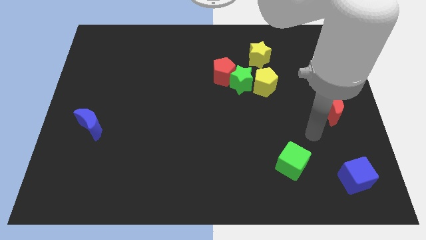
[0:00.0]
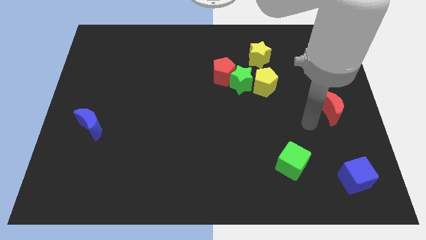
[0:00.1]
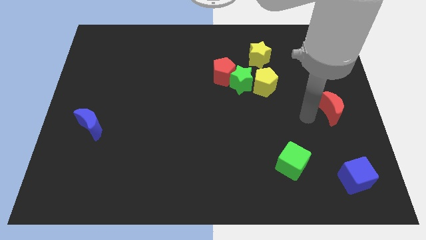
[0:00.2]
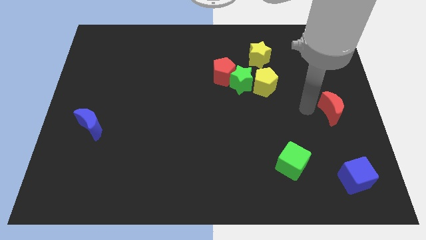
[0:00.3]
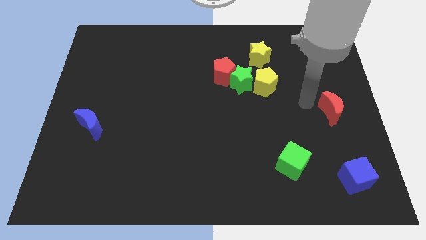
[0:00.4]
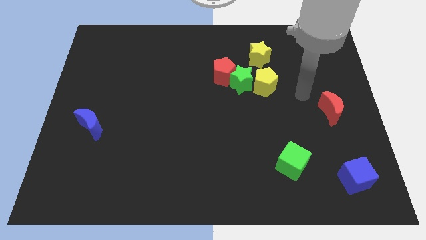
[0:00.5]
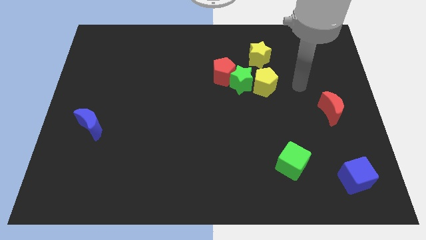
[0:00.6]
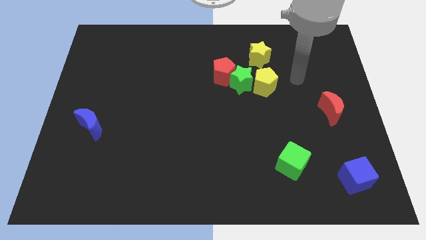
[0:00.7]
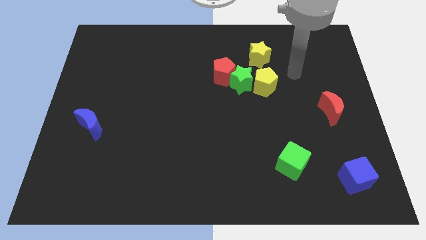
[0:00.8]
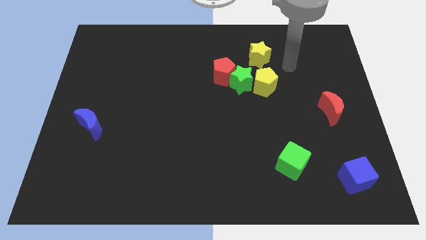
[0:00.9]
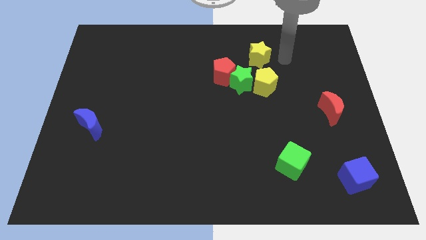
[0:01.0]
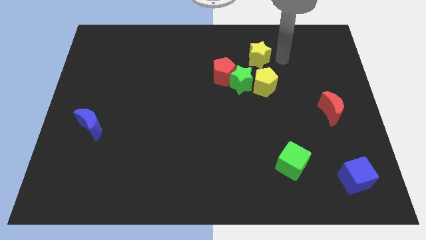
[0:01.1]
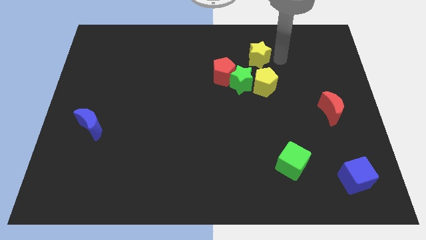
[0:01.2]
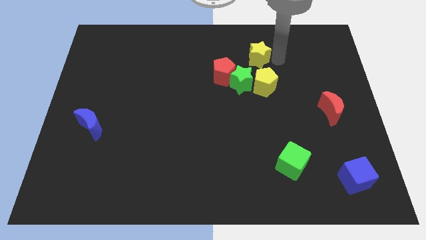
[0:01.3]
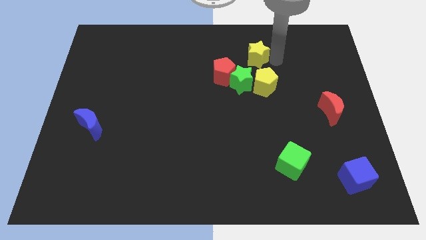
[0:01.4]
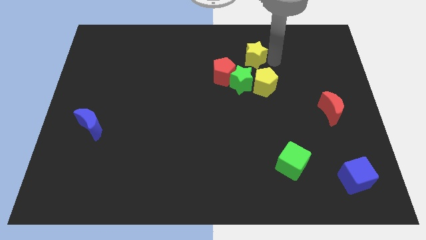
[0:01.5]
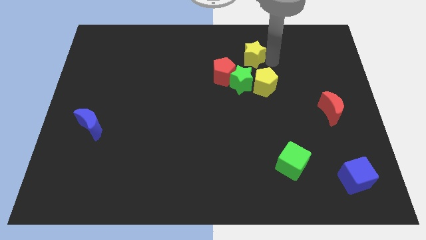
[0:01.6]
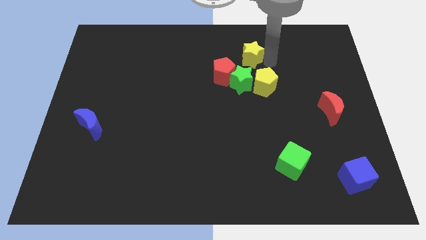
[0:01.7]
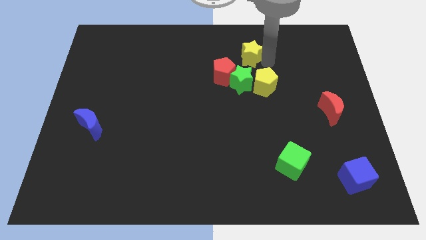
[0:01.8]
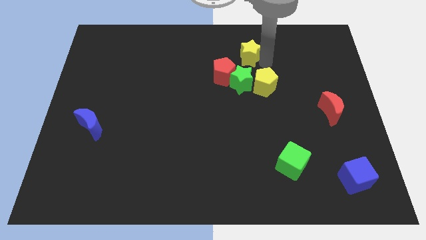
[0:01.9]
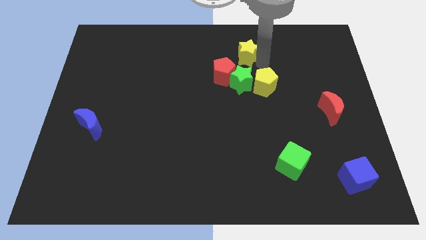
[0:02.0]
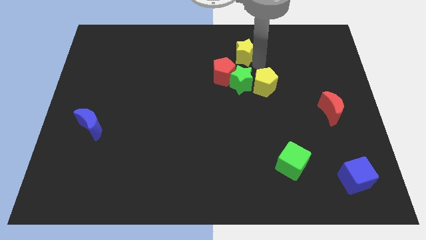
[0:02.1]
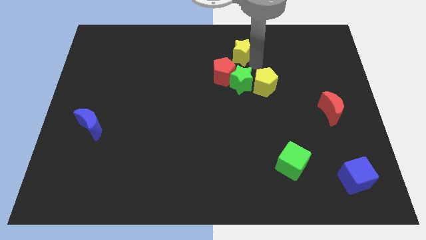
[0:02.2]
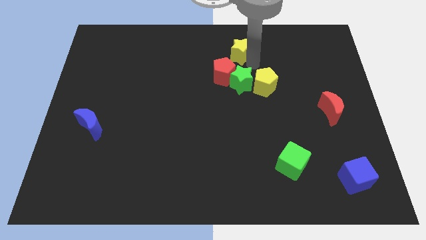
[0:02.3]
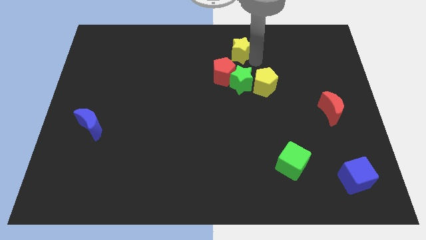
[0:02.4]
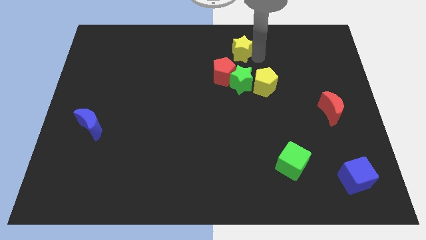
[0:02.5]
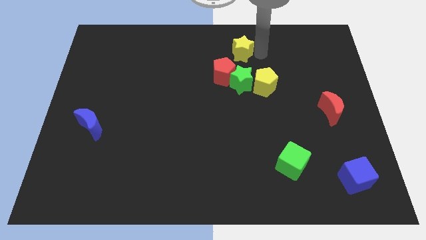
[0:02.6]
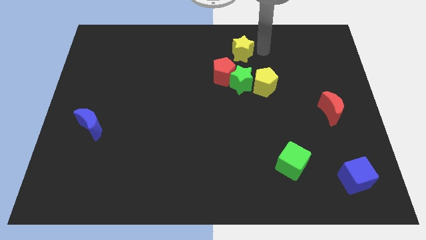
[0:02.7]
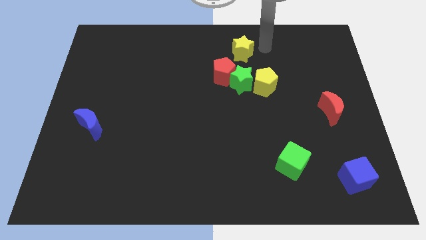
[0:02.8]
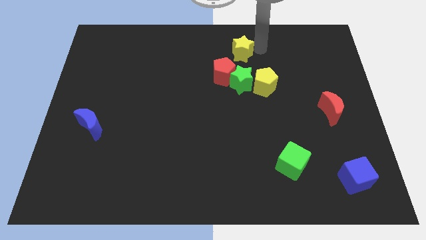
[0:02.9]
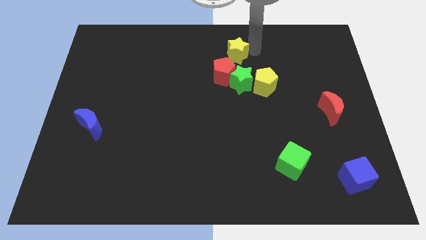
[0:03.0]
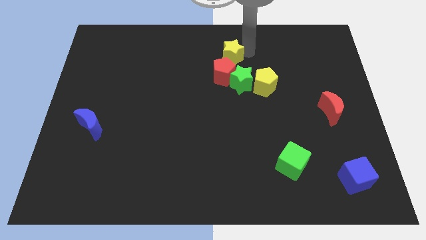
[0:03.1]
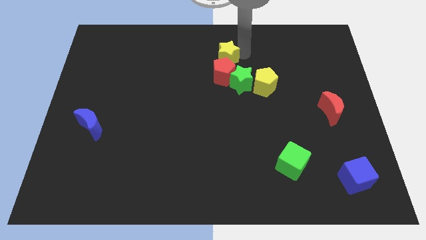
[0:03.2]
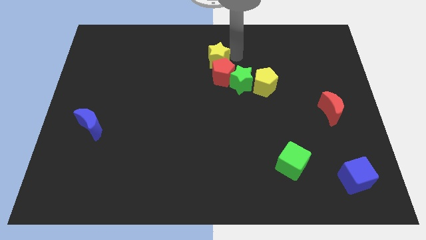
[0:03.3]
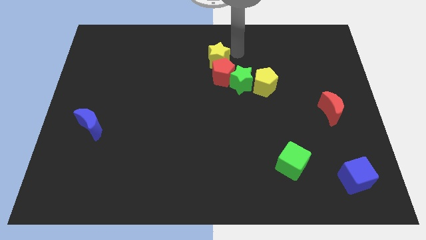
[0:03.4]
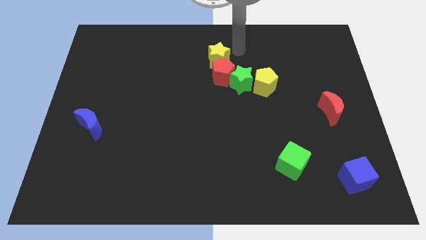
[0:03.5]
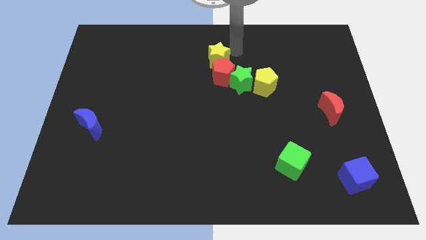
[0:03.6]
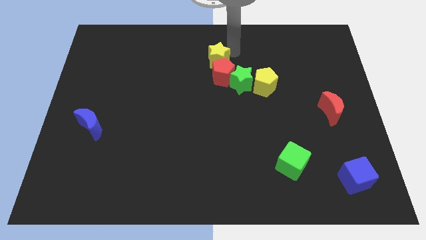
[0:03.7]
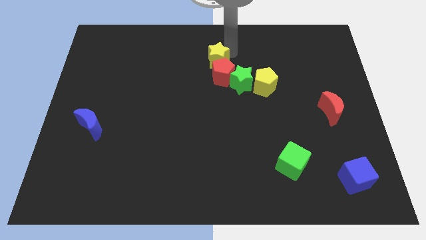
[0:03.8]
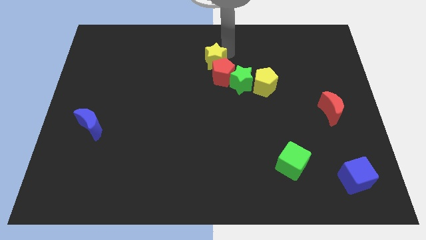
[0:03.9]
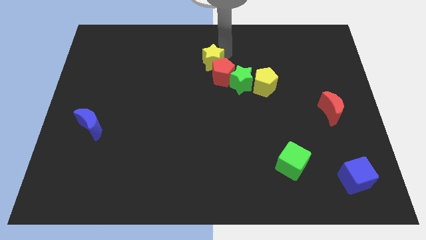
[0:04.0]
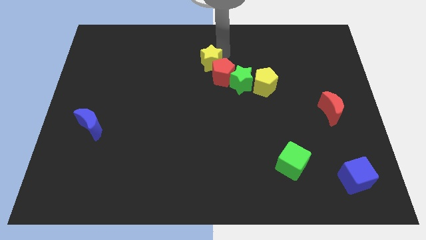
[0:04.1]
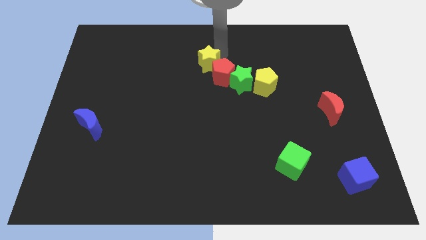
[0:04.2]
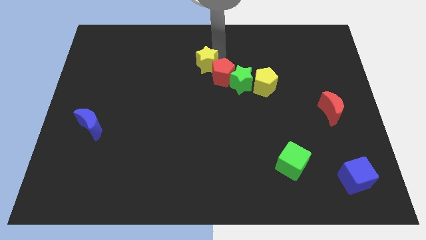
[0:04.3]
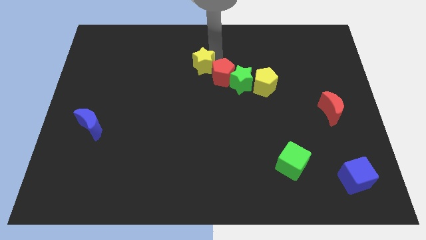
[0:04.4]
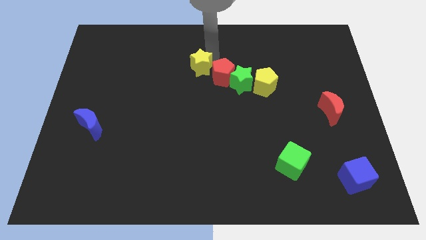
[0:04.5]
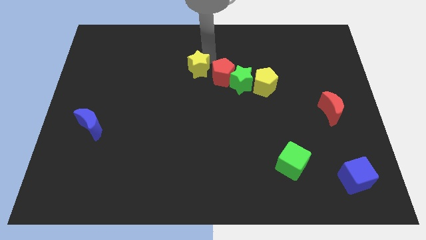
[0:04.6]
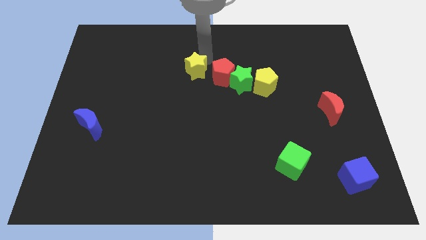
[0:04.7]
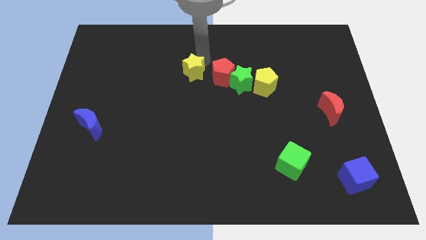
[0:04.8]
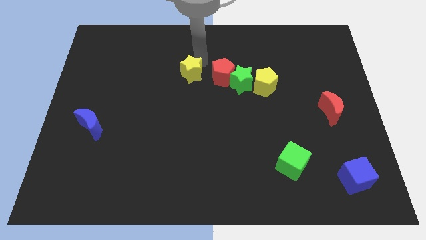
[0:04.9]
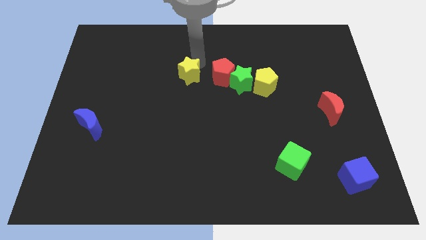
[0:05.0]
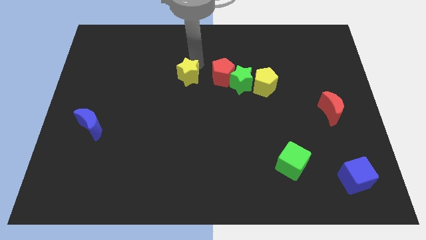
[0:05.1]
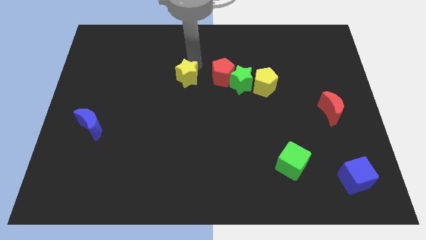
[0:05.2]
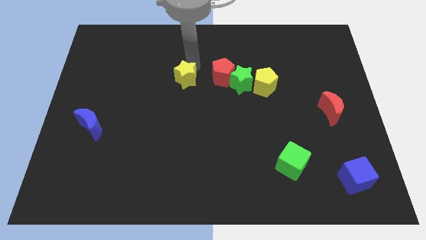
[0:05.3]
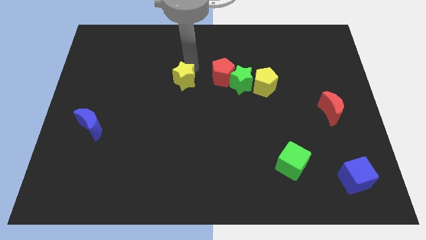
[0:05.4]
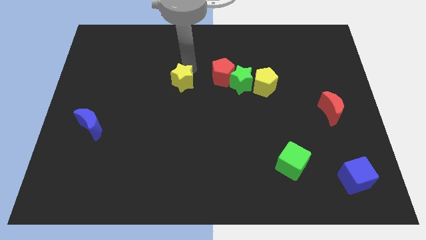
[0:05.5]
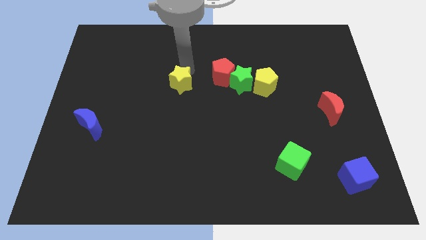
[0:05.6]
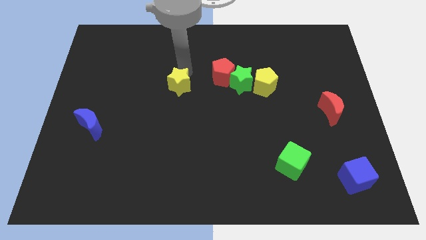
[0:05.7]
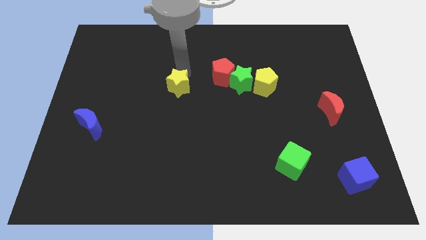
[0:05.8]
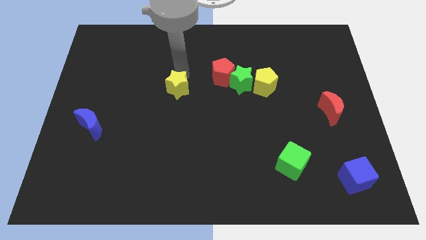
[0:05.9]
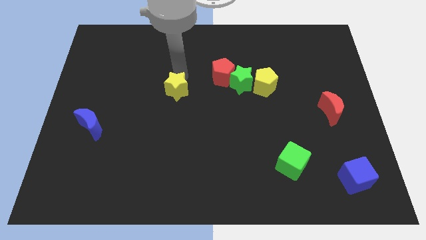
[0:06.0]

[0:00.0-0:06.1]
slide the yellow star downwards and to the left

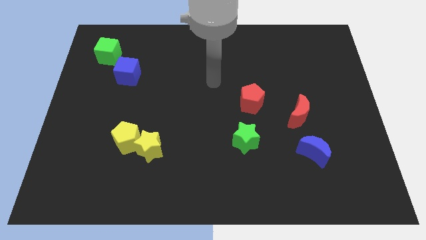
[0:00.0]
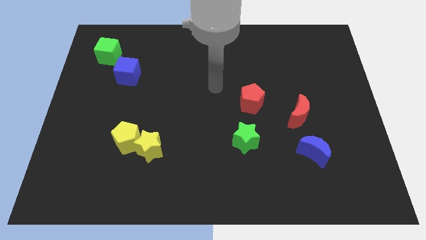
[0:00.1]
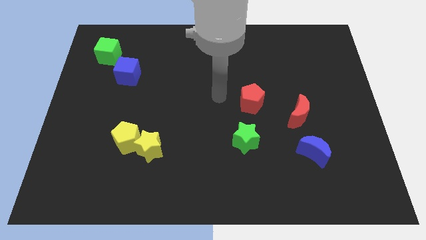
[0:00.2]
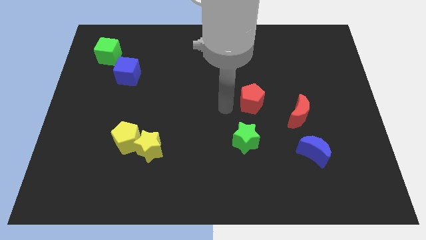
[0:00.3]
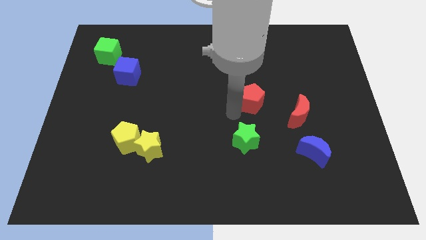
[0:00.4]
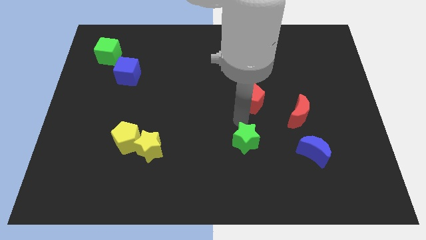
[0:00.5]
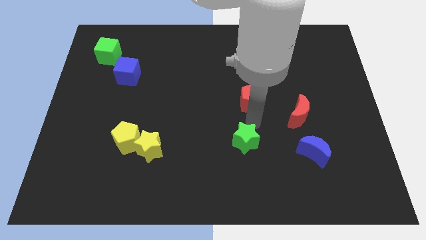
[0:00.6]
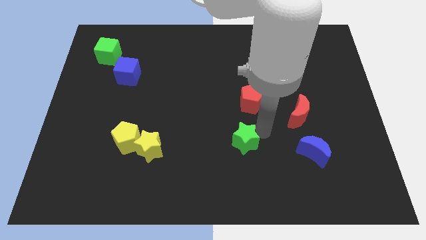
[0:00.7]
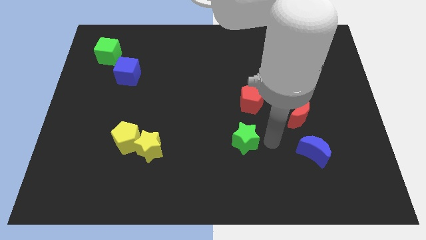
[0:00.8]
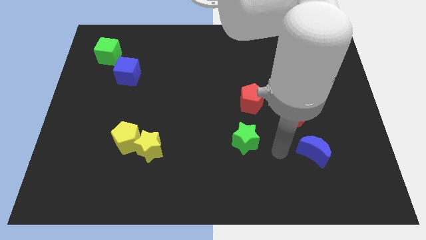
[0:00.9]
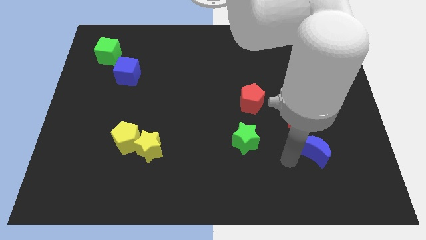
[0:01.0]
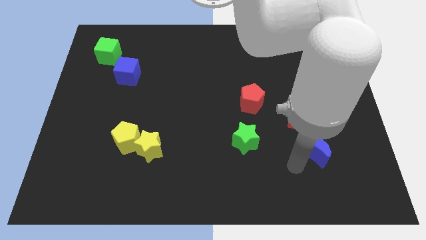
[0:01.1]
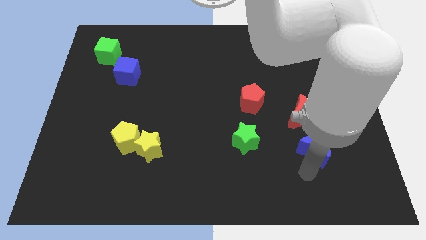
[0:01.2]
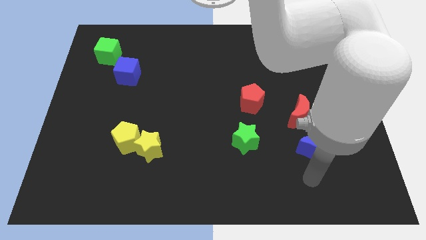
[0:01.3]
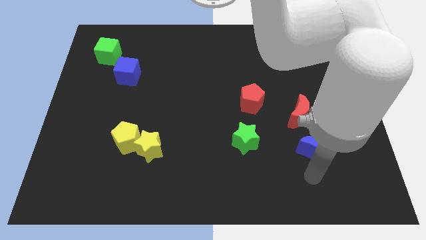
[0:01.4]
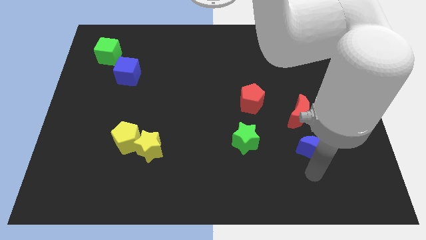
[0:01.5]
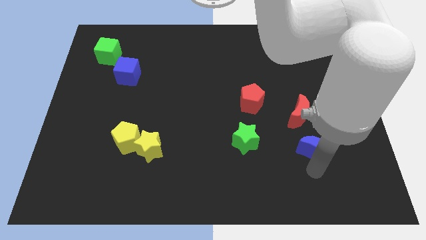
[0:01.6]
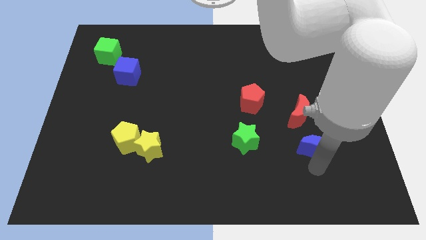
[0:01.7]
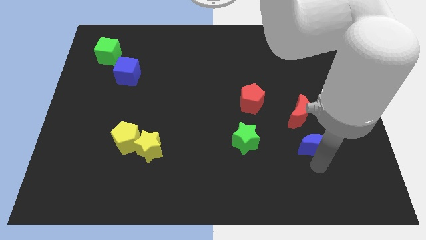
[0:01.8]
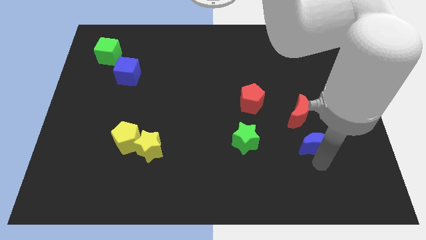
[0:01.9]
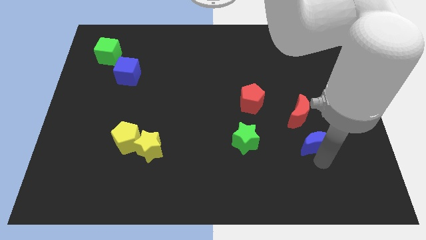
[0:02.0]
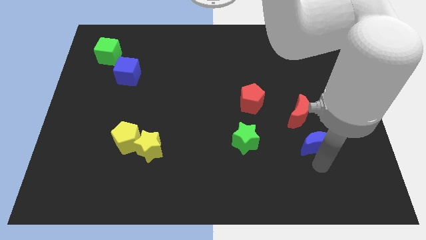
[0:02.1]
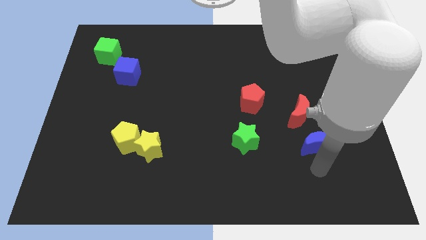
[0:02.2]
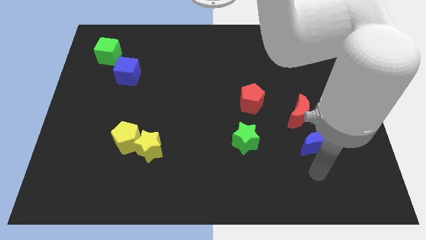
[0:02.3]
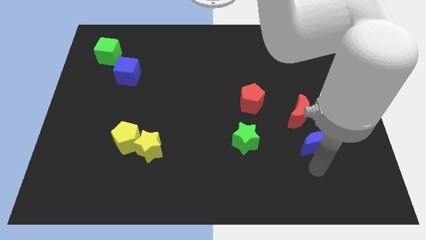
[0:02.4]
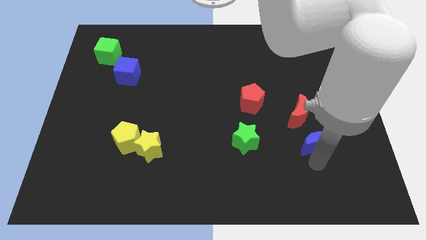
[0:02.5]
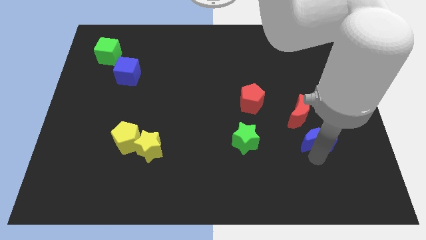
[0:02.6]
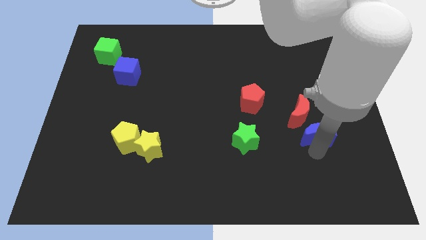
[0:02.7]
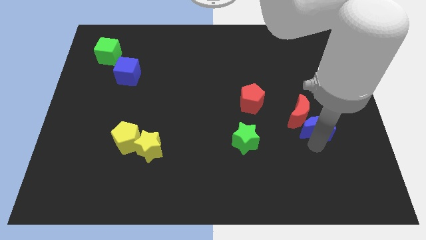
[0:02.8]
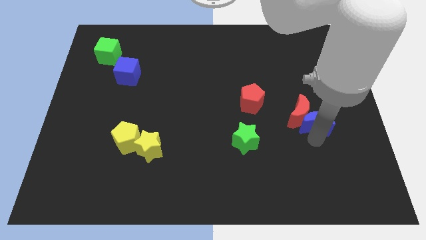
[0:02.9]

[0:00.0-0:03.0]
slightly push the blue moon upwards
